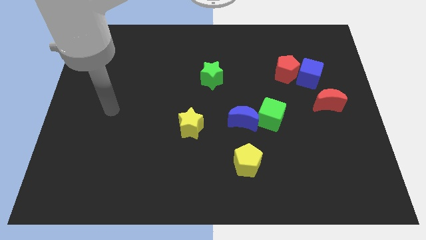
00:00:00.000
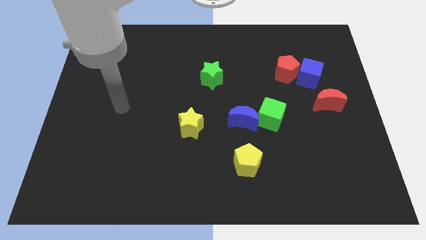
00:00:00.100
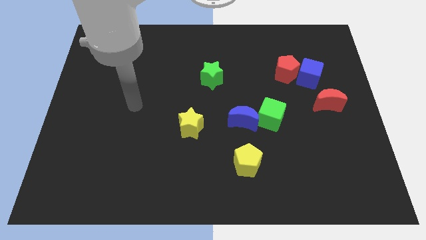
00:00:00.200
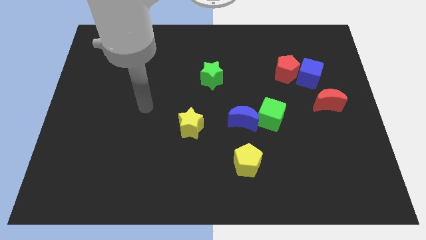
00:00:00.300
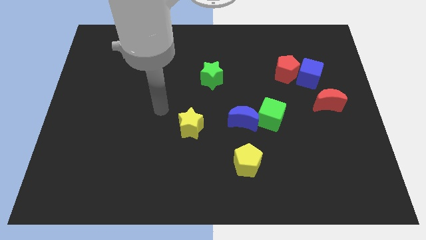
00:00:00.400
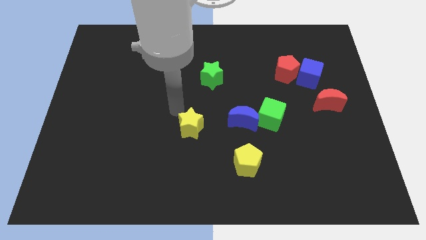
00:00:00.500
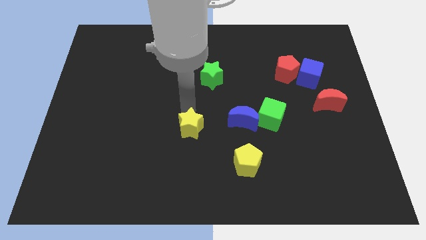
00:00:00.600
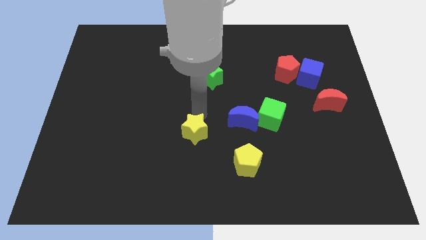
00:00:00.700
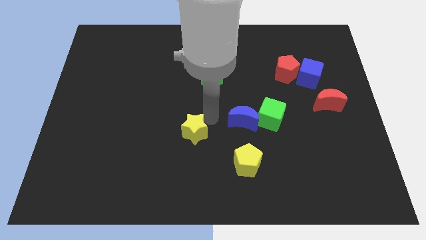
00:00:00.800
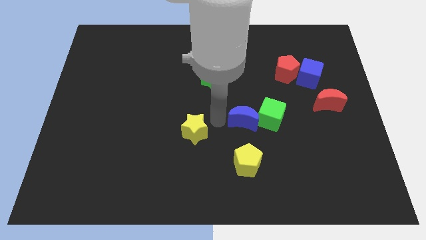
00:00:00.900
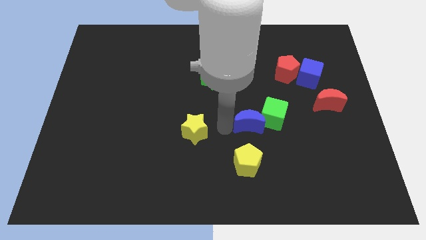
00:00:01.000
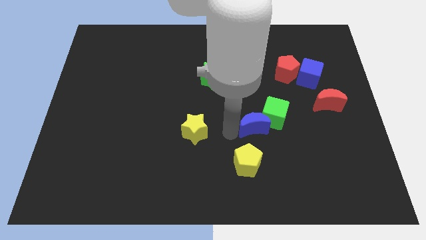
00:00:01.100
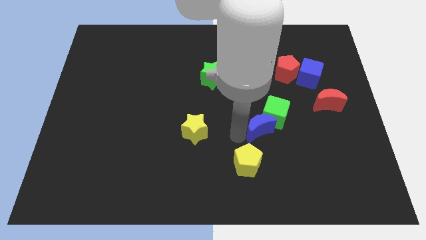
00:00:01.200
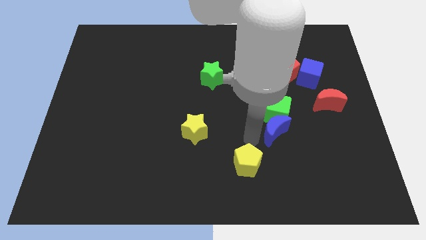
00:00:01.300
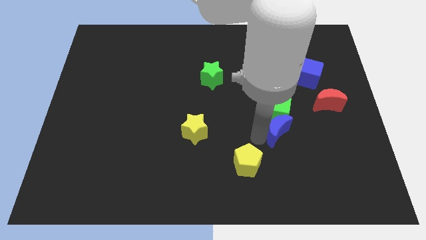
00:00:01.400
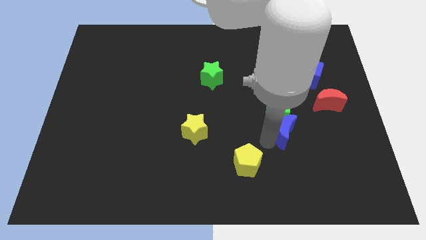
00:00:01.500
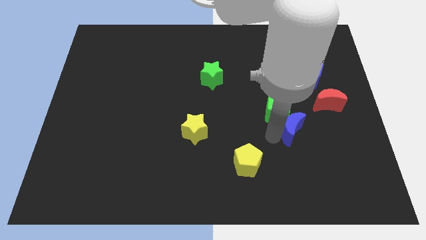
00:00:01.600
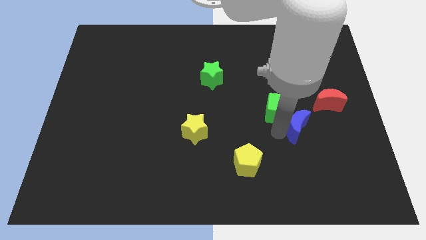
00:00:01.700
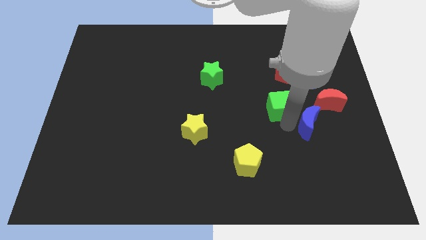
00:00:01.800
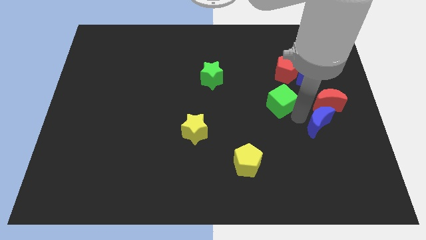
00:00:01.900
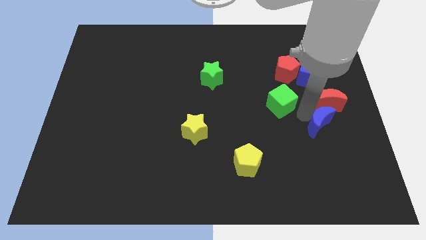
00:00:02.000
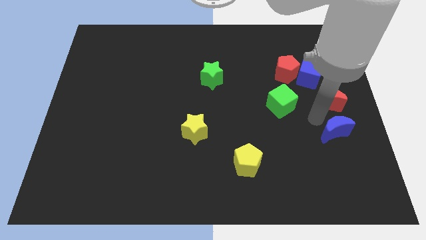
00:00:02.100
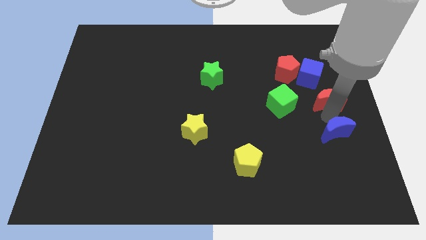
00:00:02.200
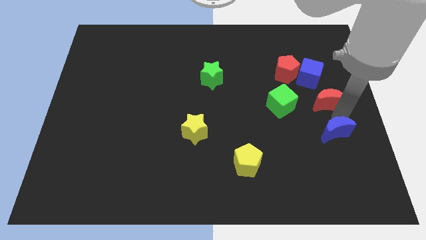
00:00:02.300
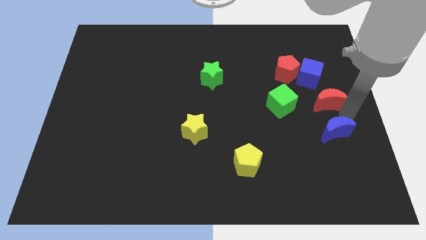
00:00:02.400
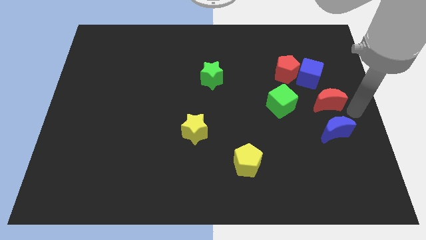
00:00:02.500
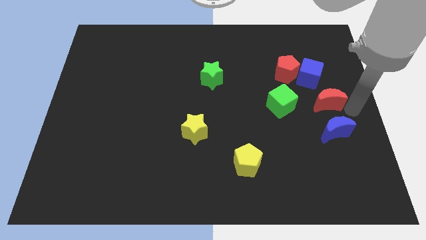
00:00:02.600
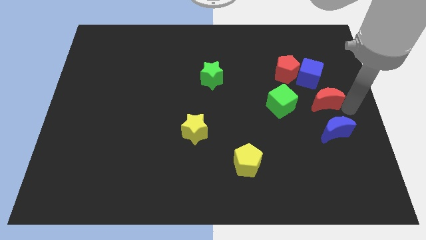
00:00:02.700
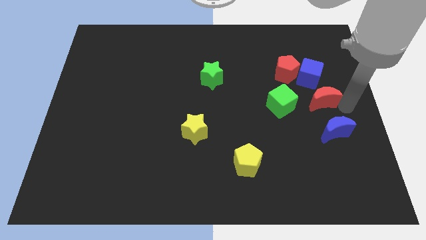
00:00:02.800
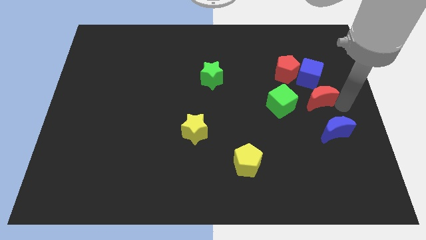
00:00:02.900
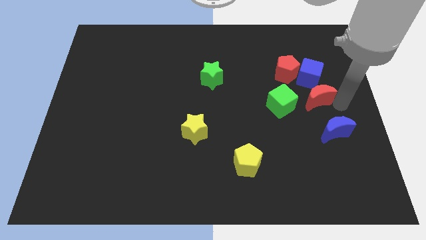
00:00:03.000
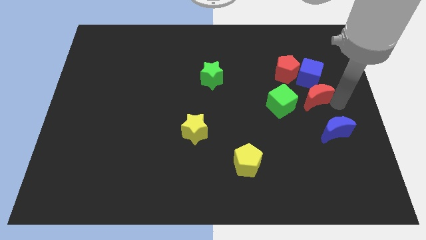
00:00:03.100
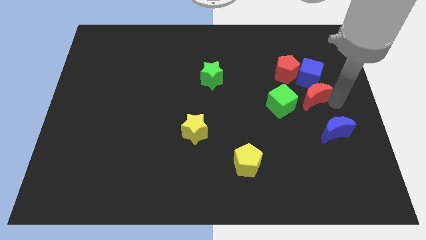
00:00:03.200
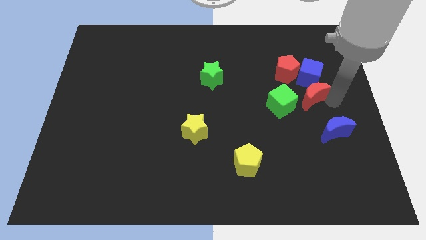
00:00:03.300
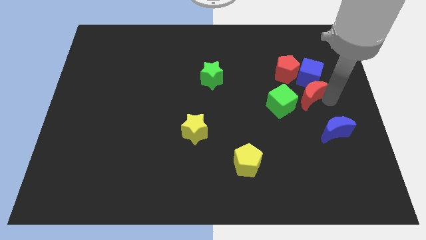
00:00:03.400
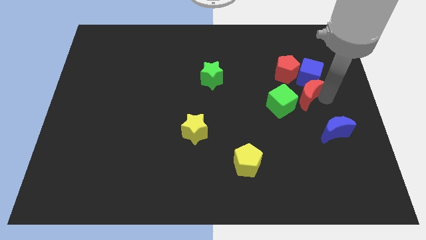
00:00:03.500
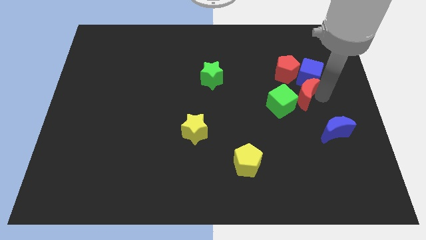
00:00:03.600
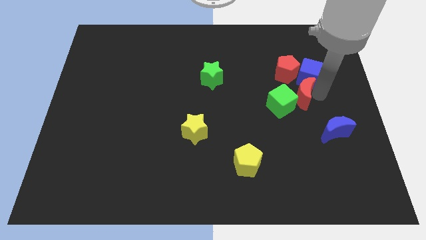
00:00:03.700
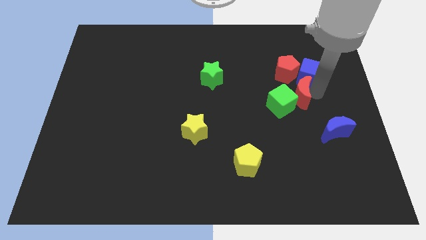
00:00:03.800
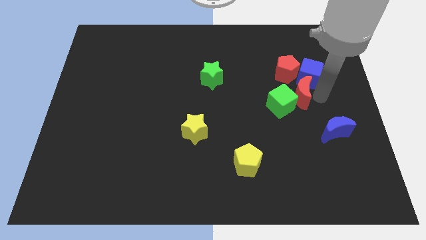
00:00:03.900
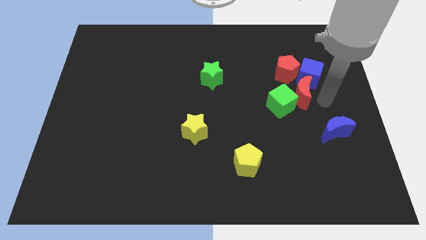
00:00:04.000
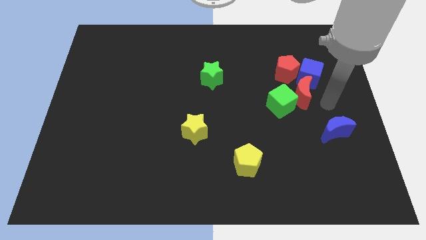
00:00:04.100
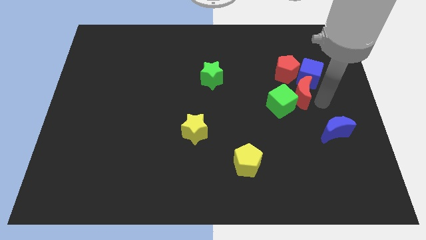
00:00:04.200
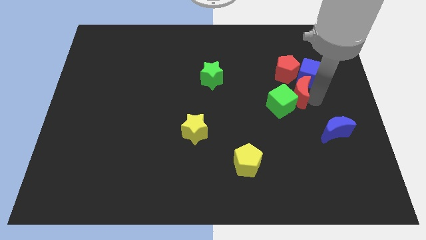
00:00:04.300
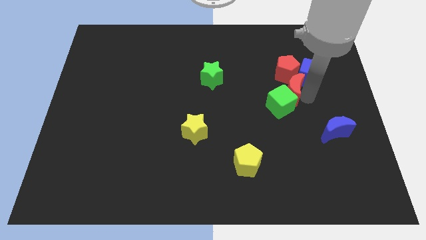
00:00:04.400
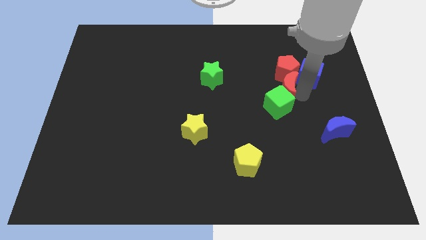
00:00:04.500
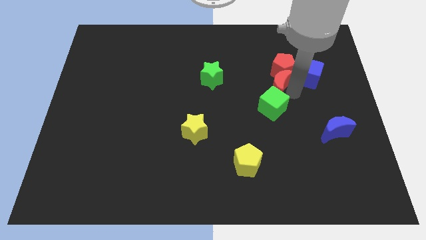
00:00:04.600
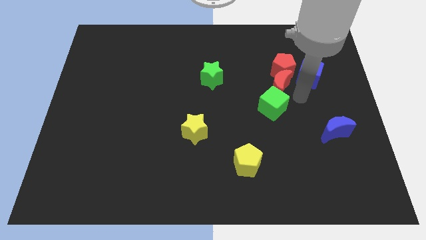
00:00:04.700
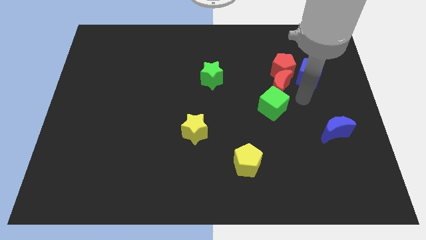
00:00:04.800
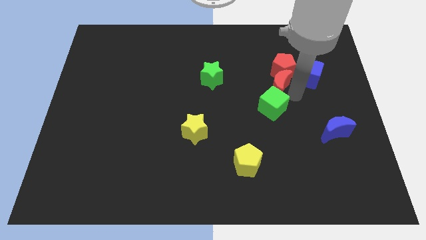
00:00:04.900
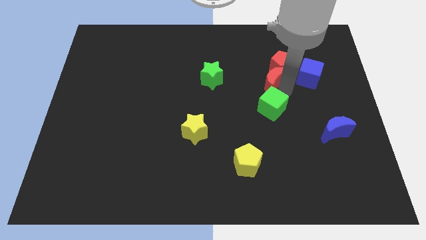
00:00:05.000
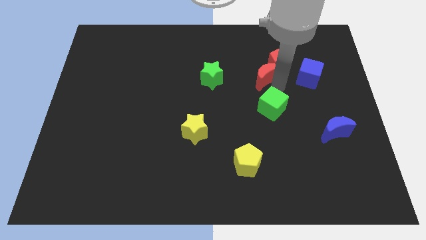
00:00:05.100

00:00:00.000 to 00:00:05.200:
move the red moon left of the red pentagon

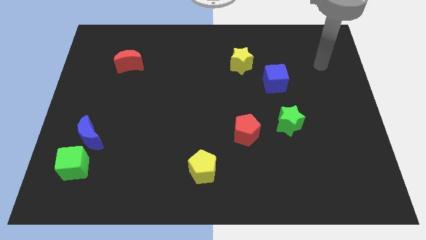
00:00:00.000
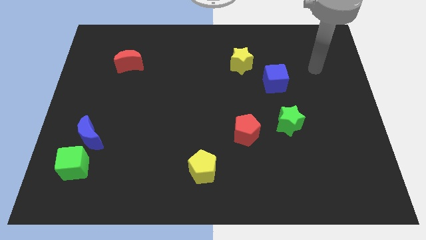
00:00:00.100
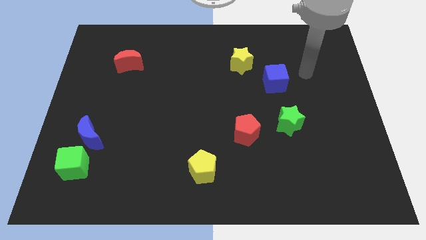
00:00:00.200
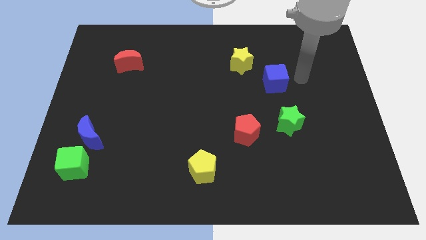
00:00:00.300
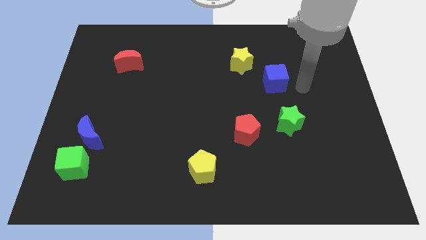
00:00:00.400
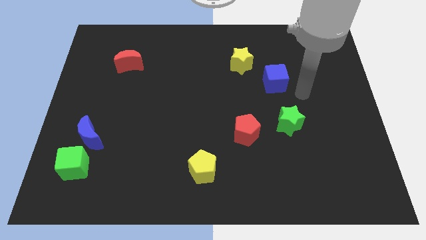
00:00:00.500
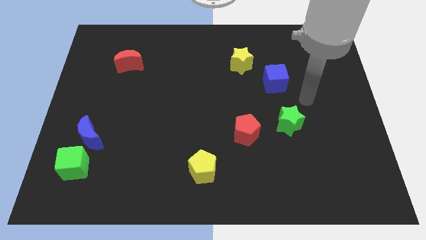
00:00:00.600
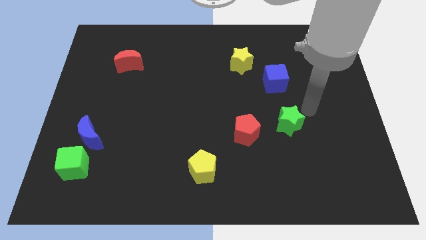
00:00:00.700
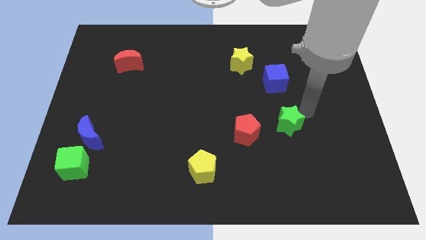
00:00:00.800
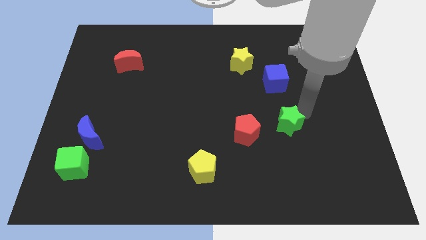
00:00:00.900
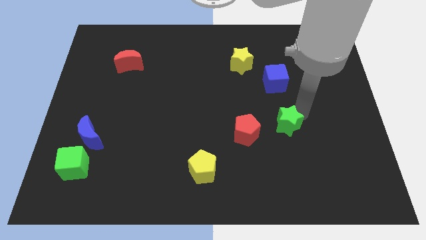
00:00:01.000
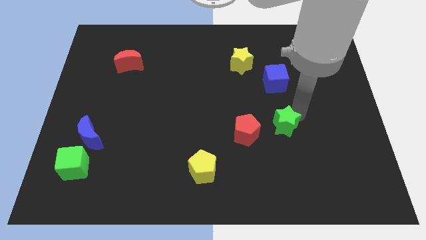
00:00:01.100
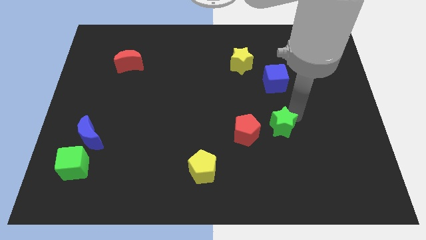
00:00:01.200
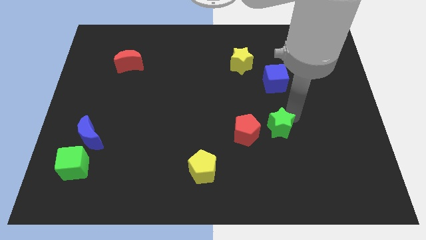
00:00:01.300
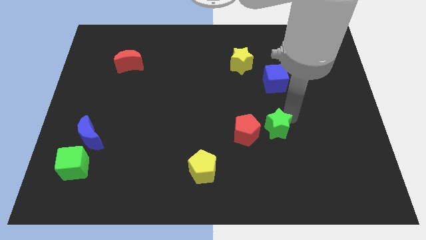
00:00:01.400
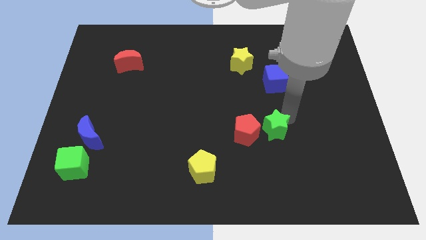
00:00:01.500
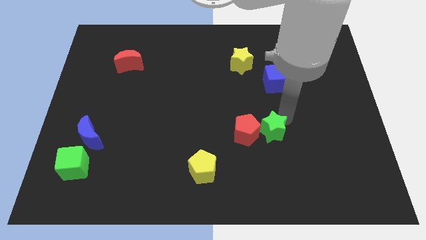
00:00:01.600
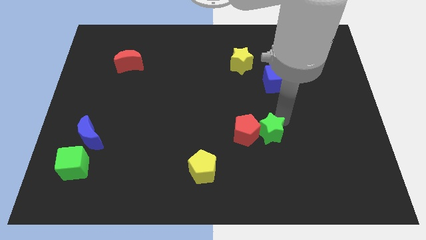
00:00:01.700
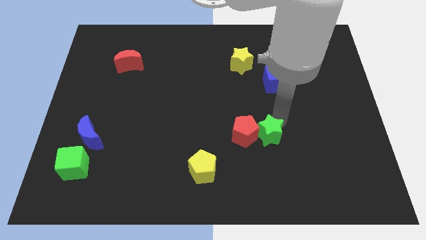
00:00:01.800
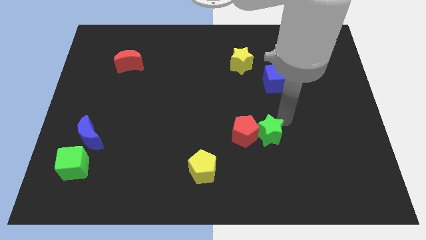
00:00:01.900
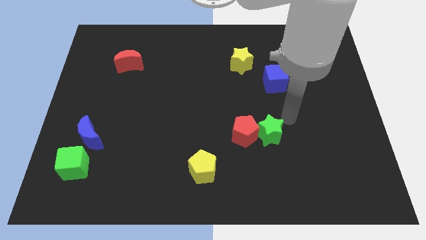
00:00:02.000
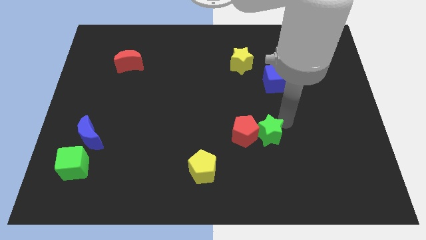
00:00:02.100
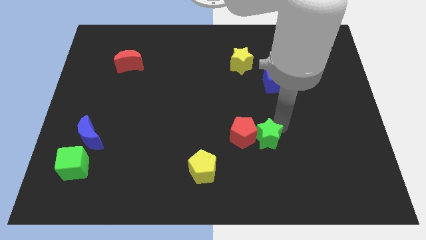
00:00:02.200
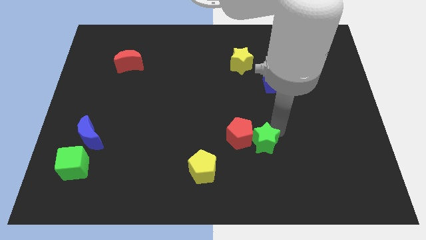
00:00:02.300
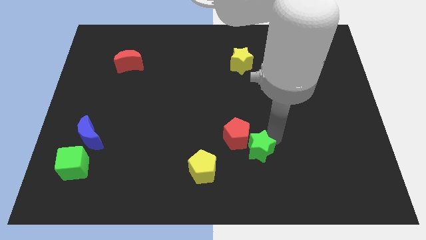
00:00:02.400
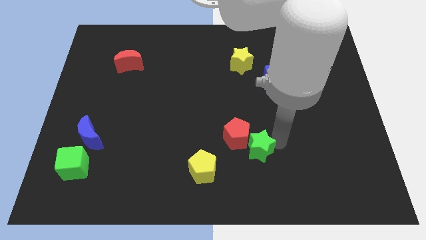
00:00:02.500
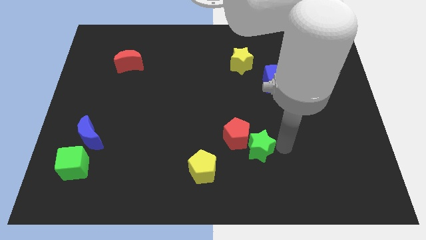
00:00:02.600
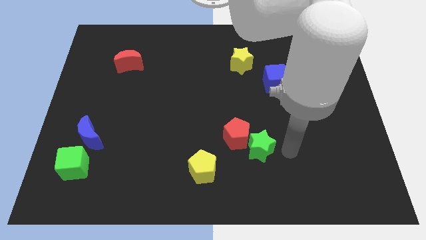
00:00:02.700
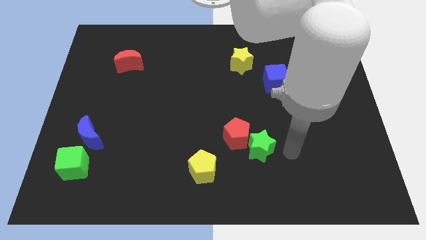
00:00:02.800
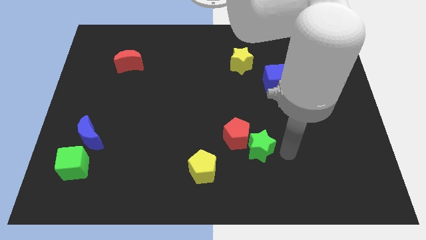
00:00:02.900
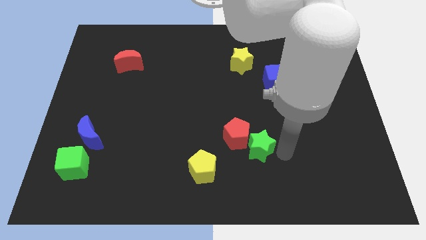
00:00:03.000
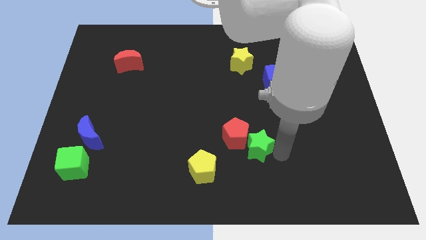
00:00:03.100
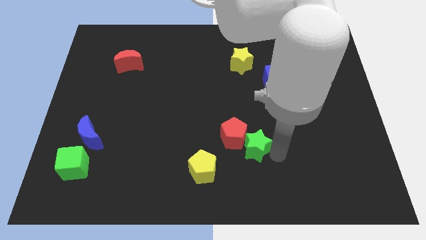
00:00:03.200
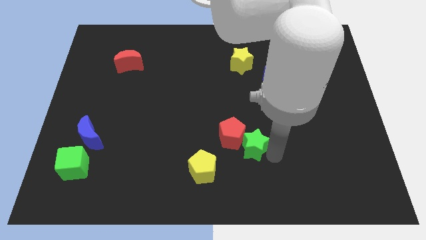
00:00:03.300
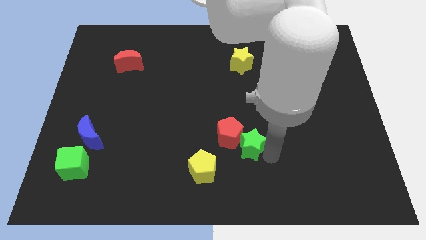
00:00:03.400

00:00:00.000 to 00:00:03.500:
slide the green star to the top right side of the yellow pentagon
